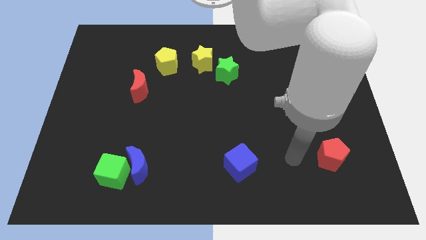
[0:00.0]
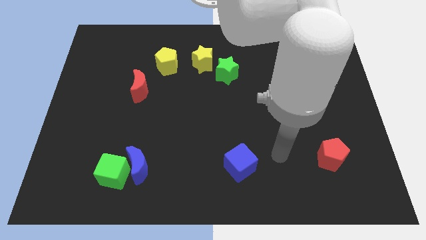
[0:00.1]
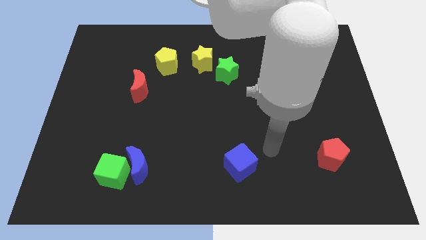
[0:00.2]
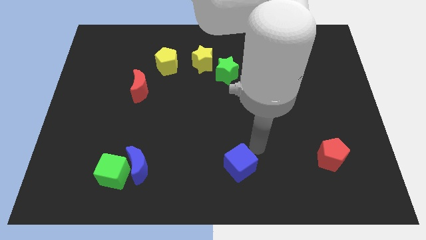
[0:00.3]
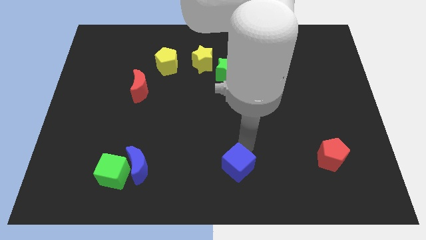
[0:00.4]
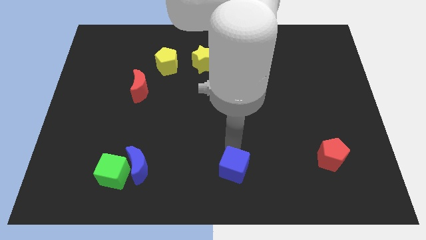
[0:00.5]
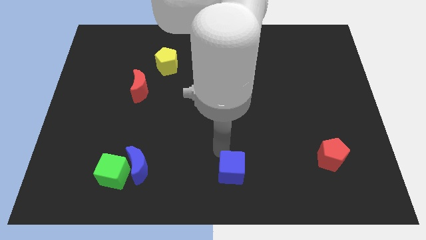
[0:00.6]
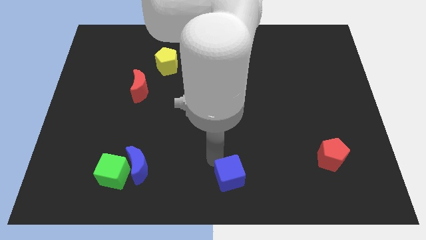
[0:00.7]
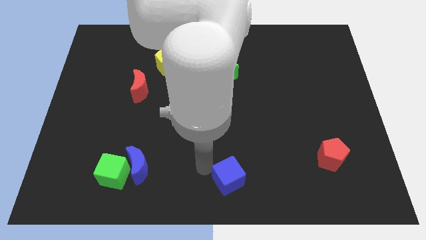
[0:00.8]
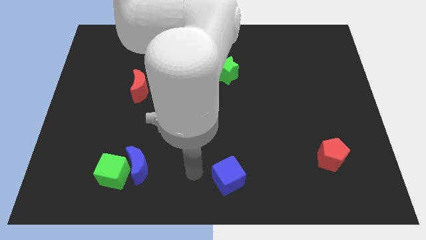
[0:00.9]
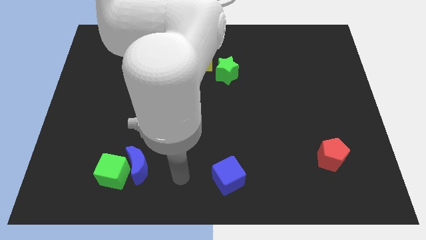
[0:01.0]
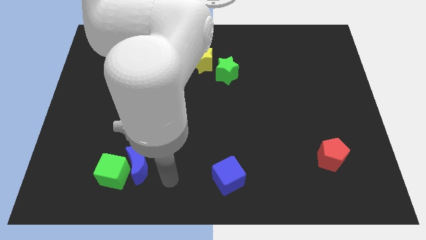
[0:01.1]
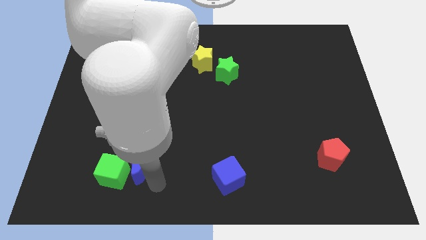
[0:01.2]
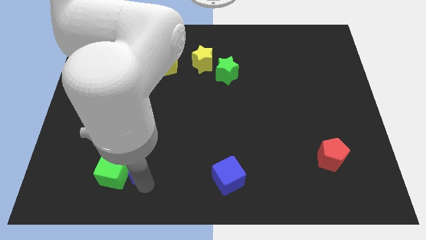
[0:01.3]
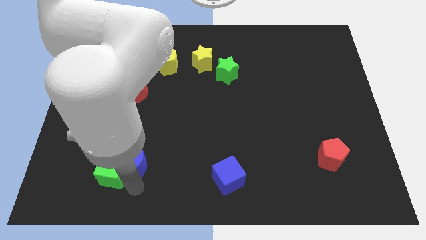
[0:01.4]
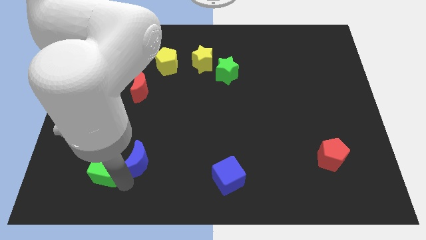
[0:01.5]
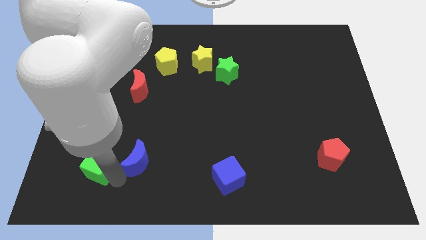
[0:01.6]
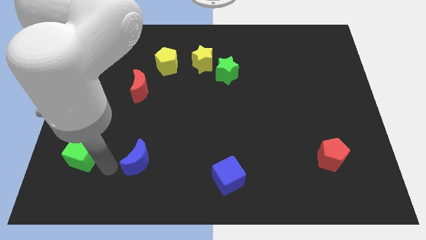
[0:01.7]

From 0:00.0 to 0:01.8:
separate the blue moon from the green cube

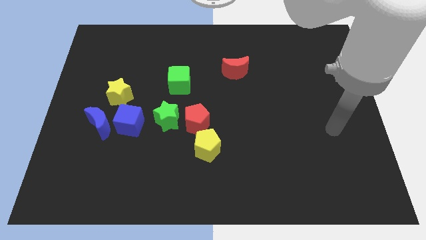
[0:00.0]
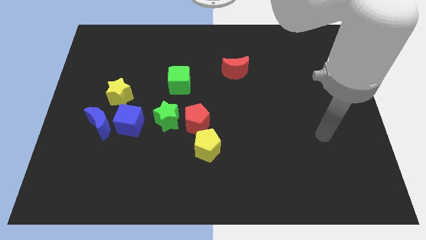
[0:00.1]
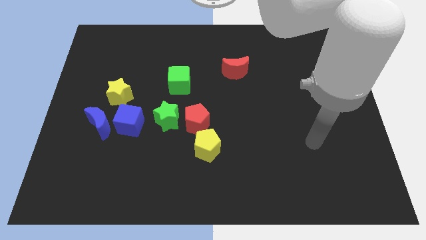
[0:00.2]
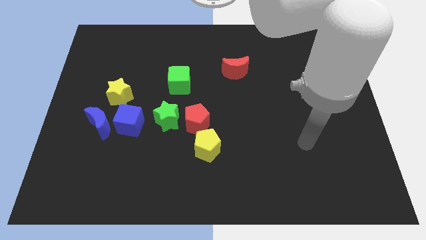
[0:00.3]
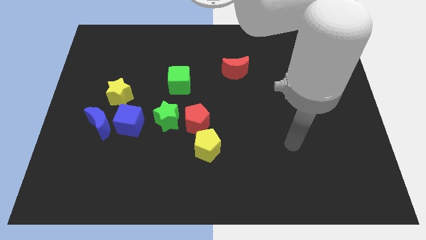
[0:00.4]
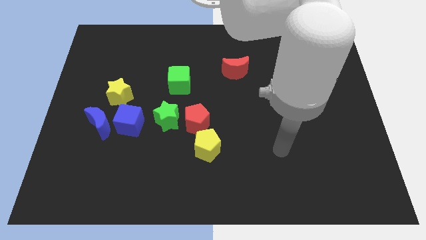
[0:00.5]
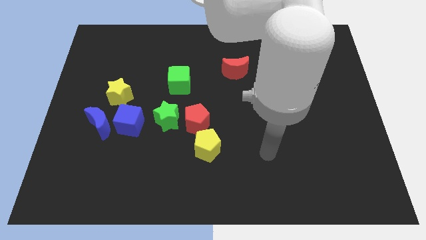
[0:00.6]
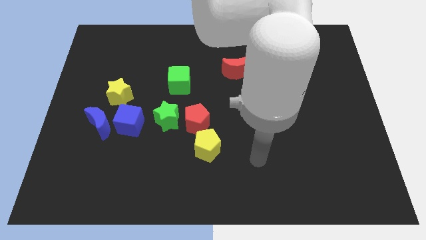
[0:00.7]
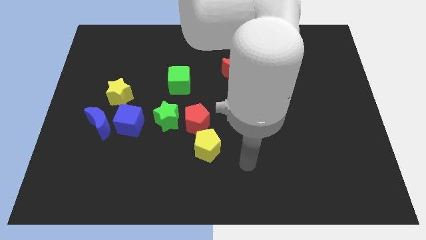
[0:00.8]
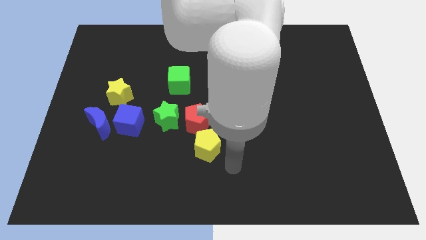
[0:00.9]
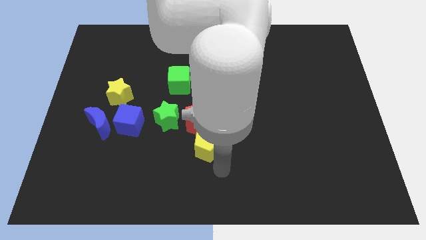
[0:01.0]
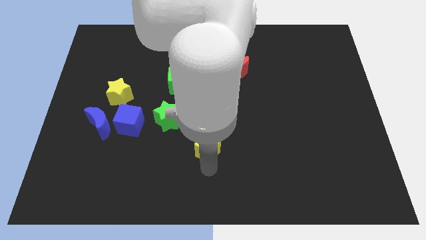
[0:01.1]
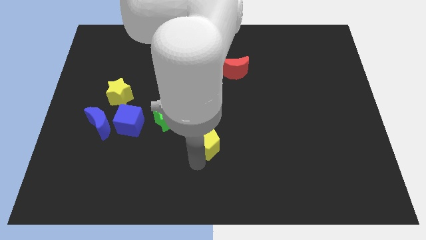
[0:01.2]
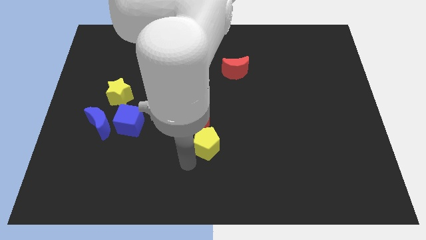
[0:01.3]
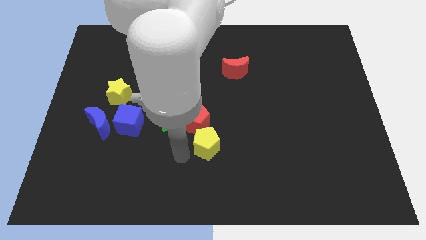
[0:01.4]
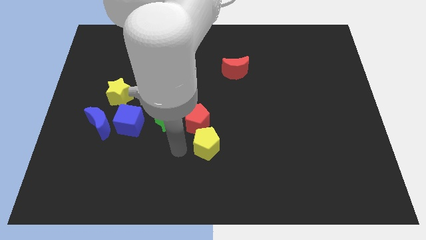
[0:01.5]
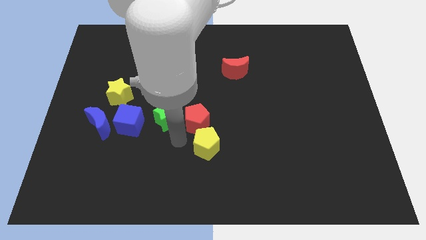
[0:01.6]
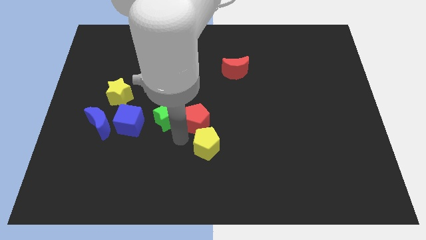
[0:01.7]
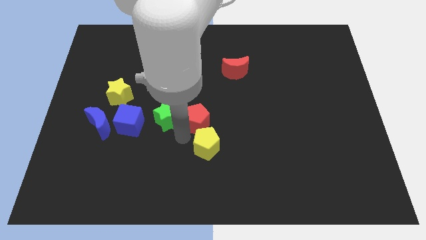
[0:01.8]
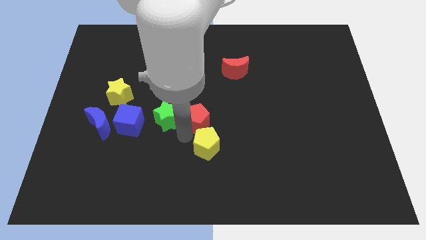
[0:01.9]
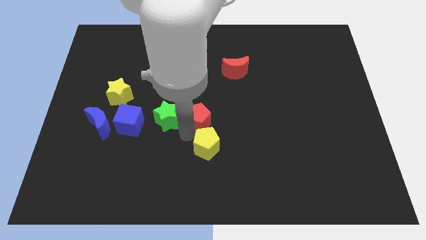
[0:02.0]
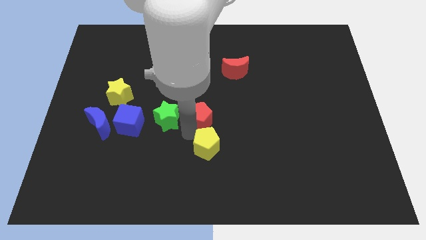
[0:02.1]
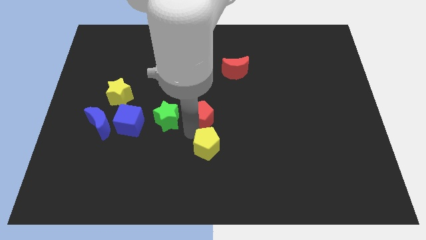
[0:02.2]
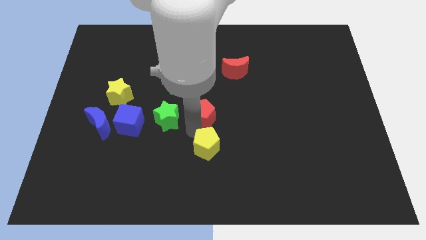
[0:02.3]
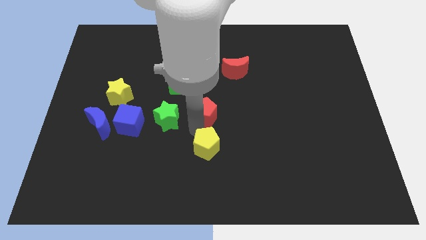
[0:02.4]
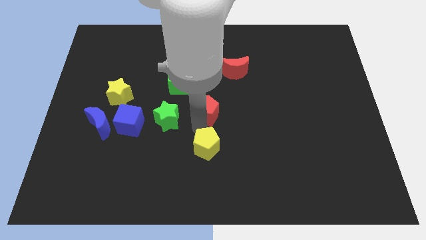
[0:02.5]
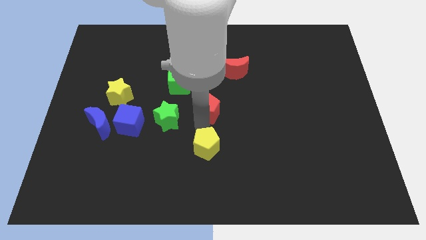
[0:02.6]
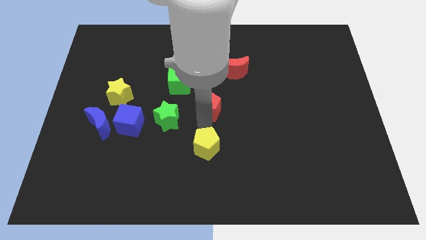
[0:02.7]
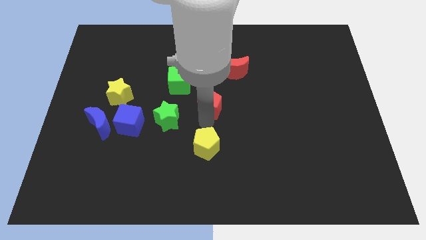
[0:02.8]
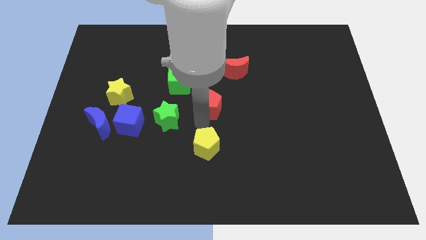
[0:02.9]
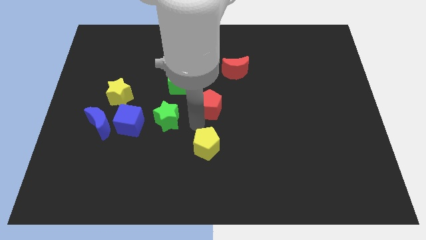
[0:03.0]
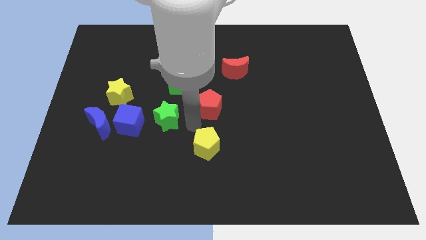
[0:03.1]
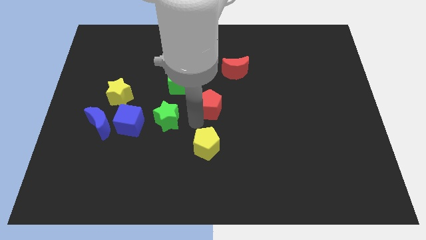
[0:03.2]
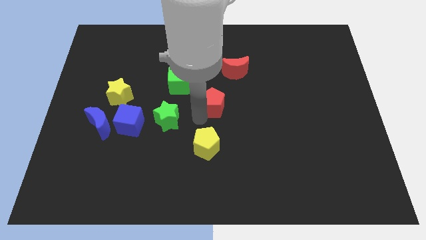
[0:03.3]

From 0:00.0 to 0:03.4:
separate the red pentagon from the green star and yellow pentagon

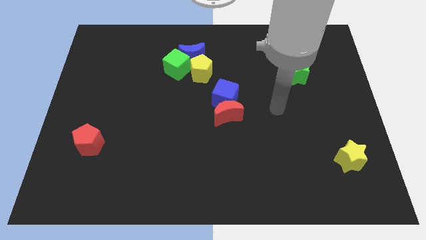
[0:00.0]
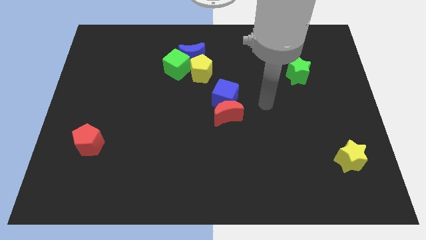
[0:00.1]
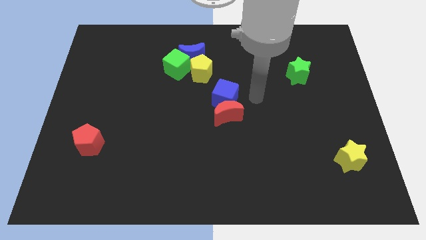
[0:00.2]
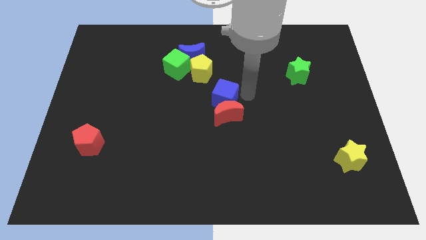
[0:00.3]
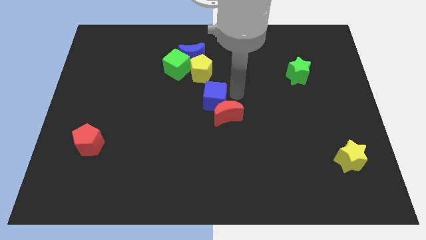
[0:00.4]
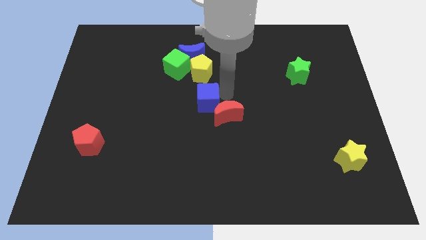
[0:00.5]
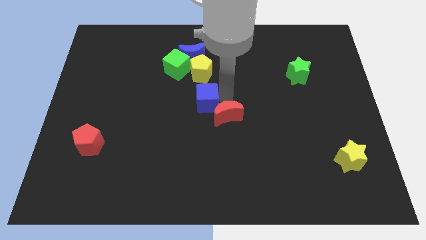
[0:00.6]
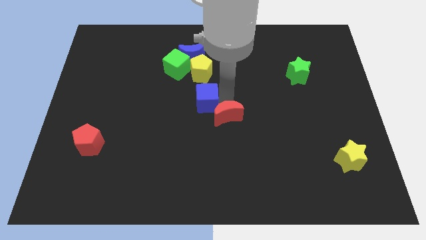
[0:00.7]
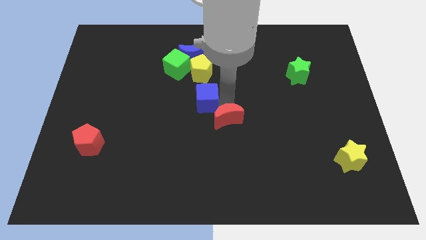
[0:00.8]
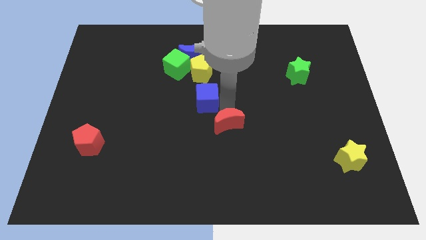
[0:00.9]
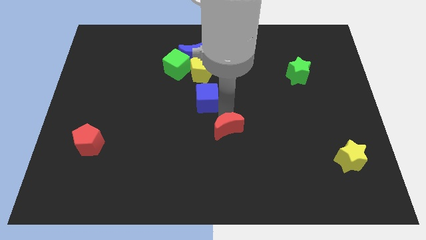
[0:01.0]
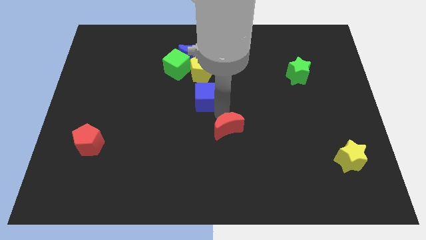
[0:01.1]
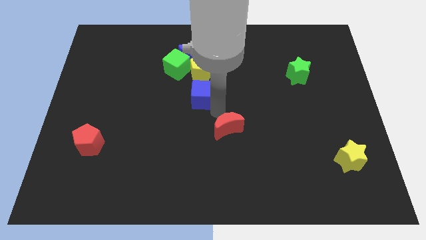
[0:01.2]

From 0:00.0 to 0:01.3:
pull the red moon apart from the blue cube

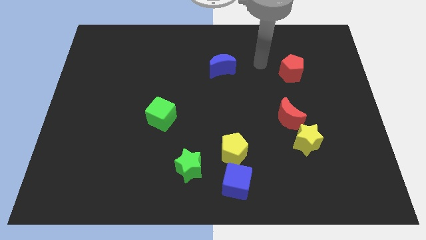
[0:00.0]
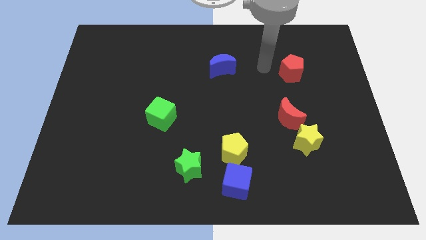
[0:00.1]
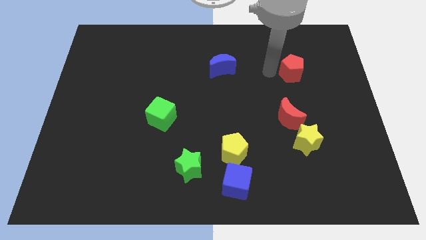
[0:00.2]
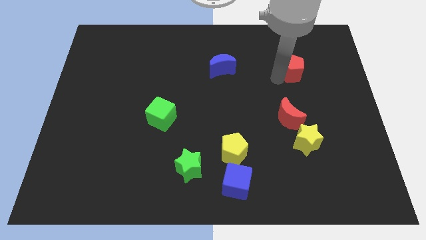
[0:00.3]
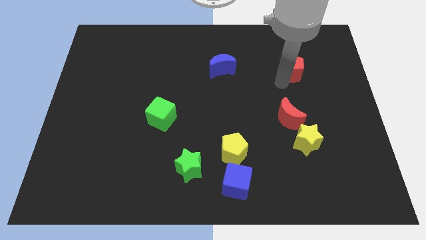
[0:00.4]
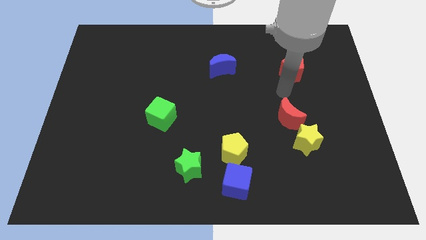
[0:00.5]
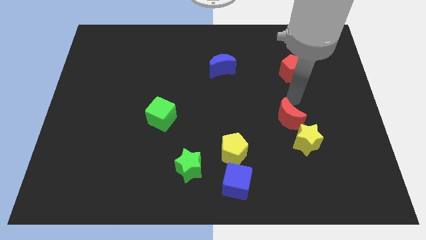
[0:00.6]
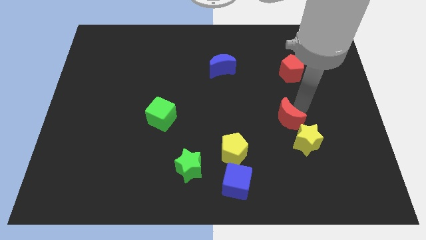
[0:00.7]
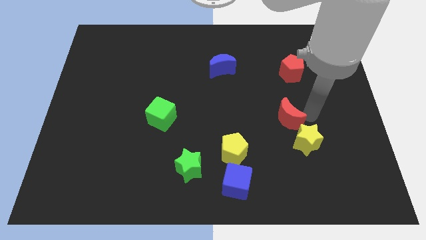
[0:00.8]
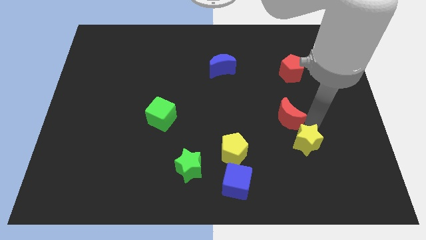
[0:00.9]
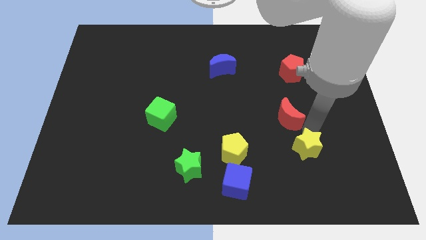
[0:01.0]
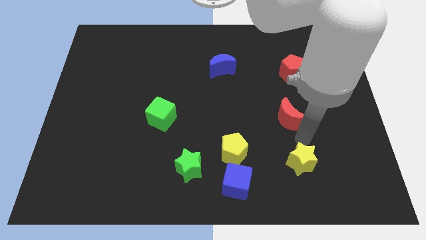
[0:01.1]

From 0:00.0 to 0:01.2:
pull the red moon apart from the yellow star

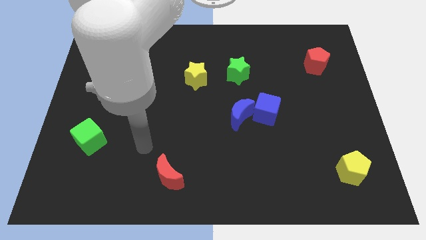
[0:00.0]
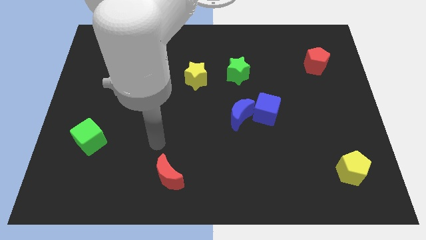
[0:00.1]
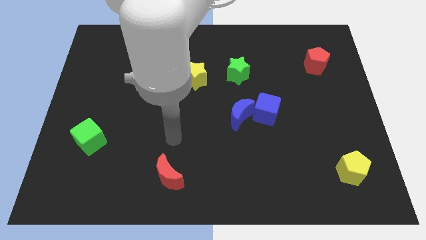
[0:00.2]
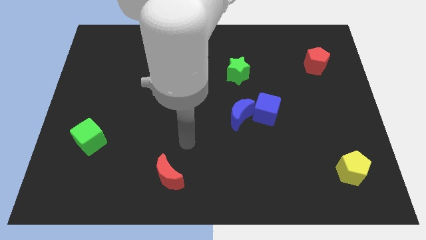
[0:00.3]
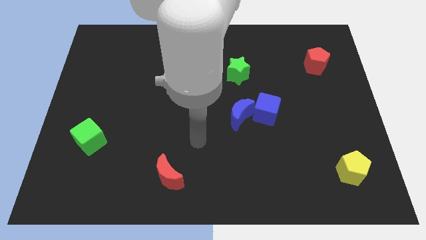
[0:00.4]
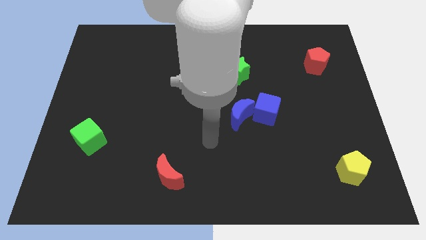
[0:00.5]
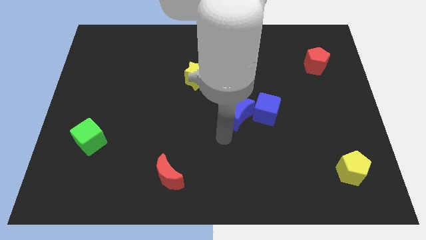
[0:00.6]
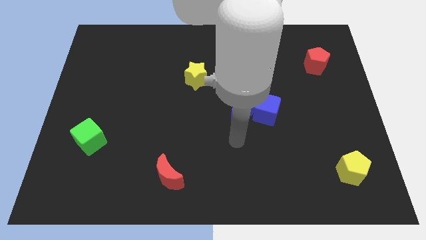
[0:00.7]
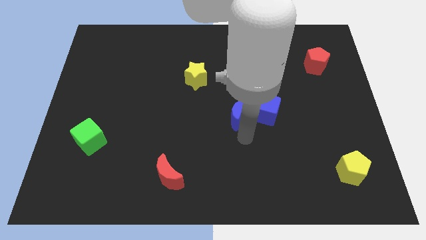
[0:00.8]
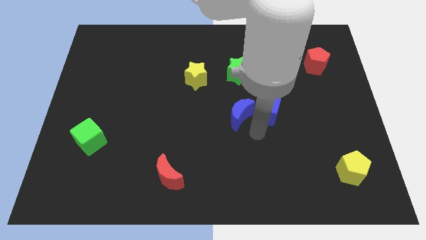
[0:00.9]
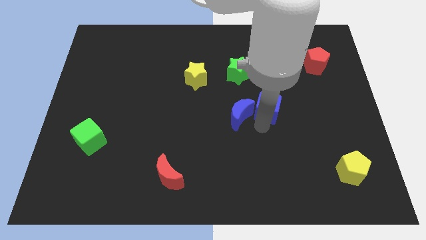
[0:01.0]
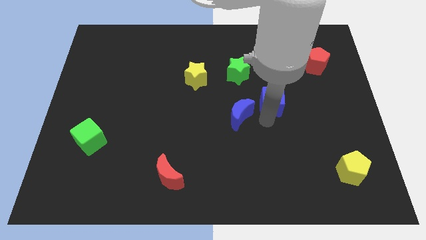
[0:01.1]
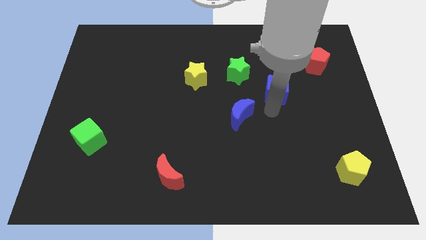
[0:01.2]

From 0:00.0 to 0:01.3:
separate the blue moon from the blue cube
